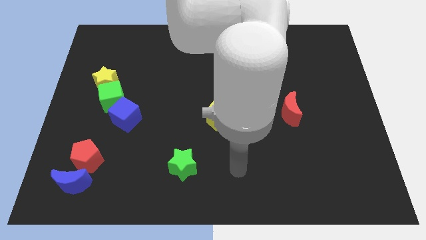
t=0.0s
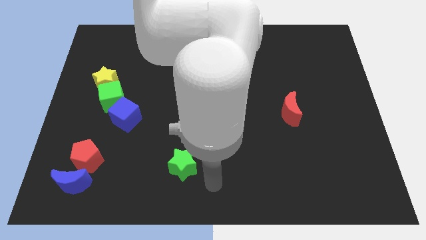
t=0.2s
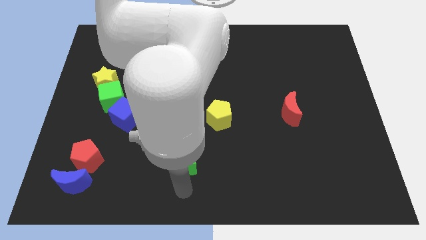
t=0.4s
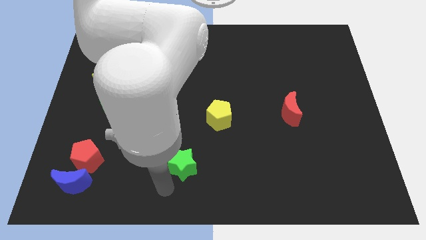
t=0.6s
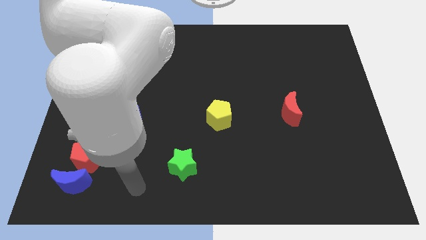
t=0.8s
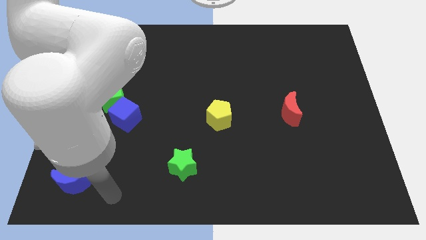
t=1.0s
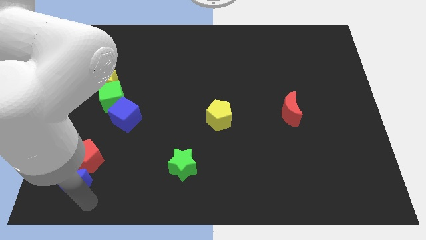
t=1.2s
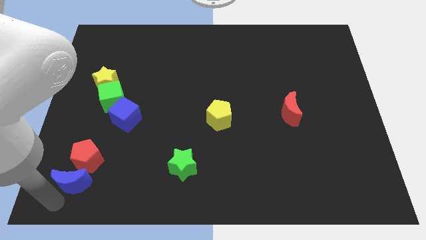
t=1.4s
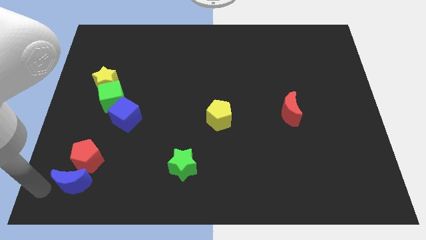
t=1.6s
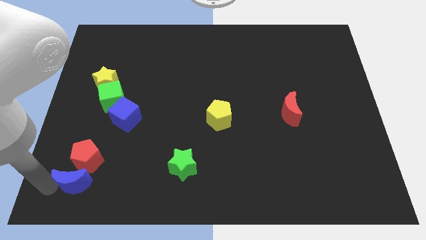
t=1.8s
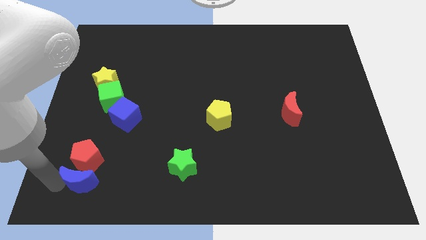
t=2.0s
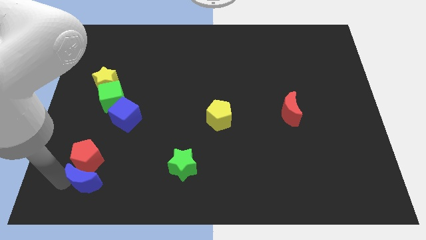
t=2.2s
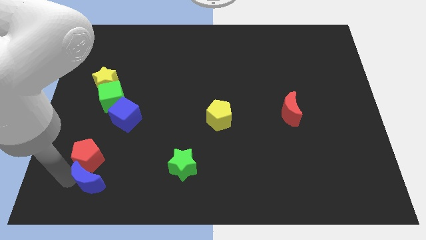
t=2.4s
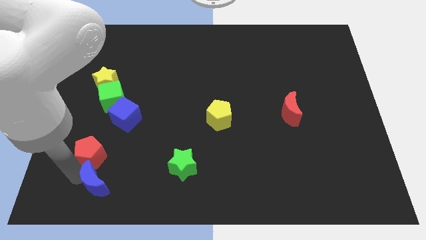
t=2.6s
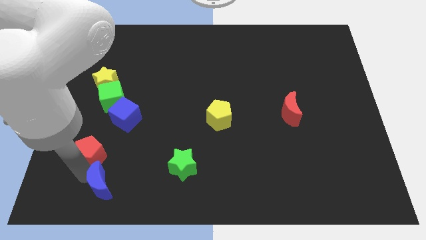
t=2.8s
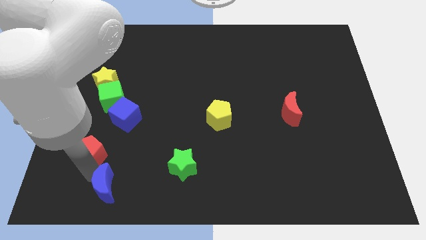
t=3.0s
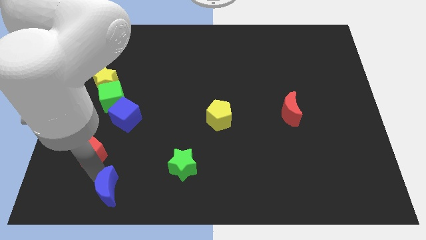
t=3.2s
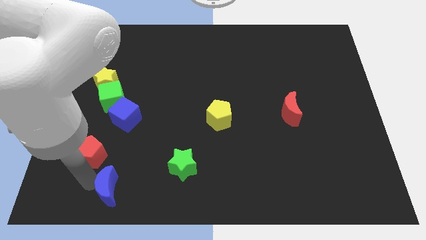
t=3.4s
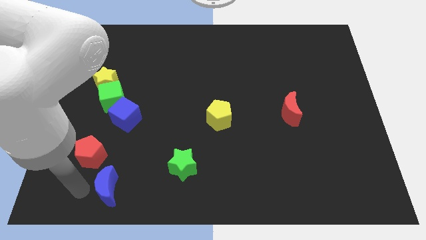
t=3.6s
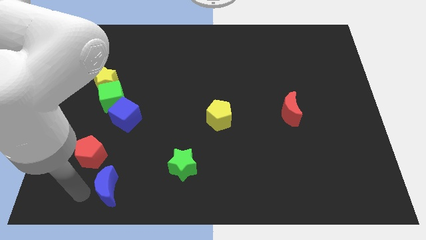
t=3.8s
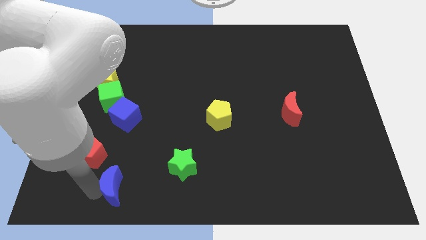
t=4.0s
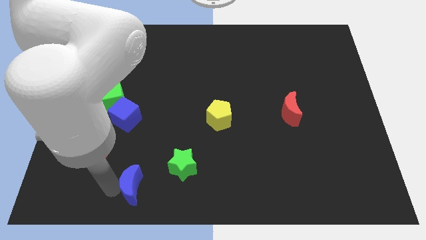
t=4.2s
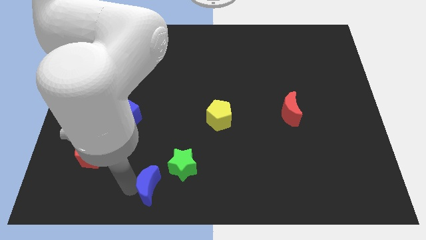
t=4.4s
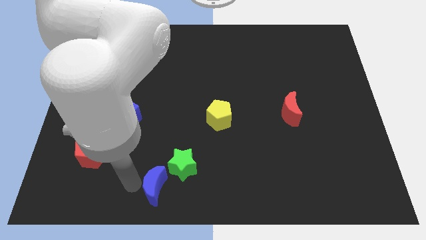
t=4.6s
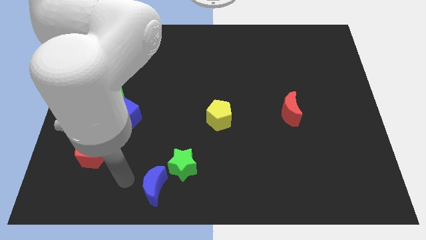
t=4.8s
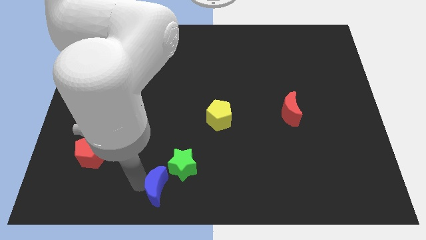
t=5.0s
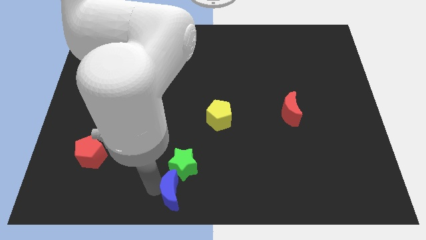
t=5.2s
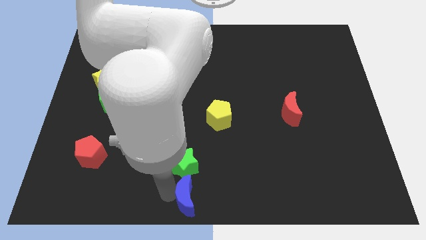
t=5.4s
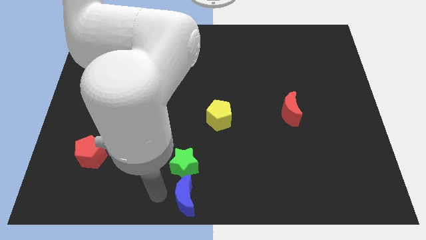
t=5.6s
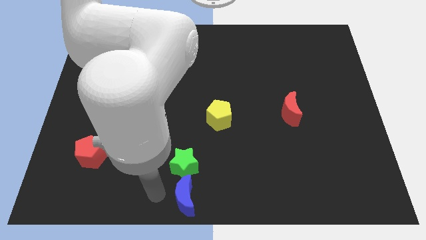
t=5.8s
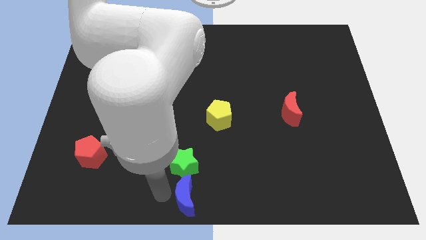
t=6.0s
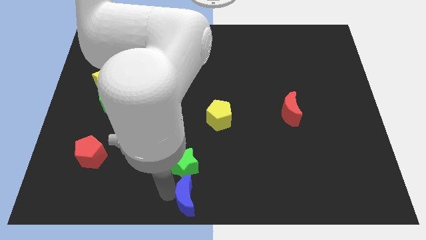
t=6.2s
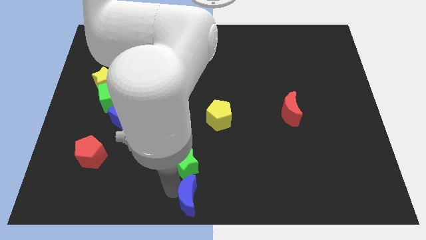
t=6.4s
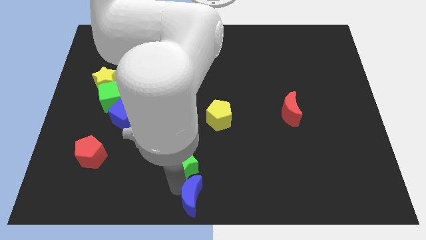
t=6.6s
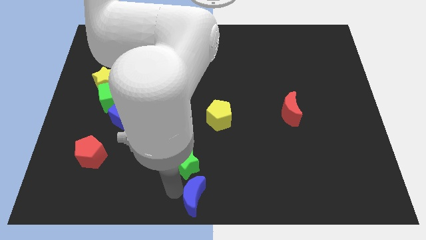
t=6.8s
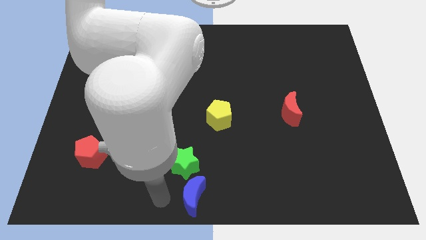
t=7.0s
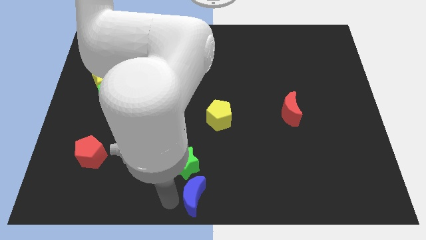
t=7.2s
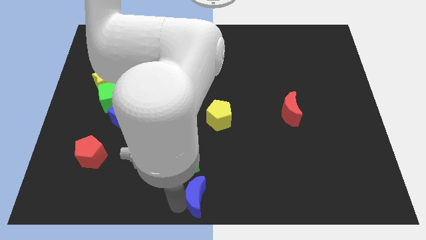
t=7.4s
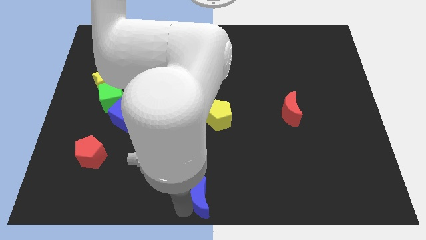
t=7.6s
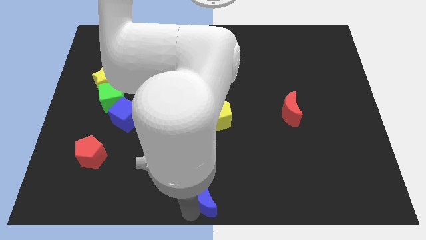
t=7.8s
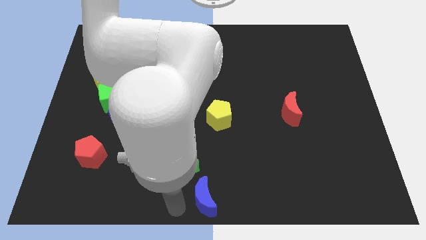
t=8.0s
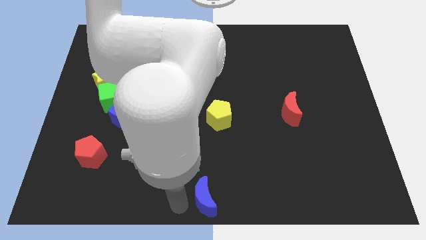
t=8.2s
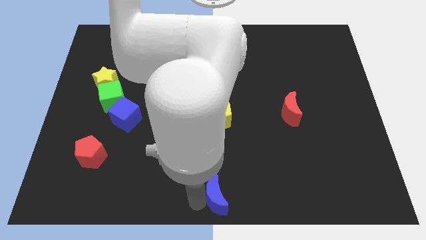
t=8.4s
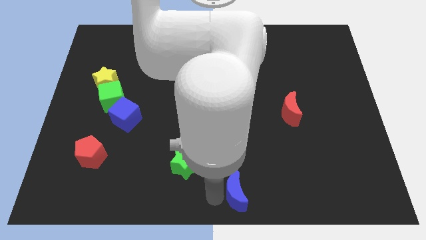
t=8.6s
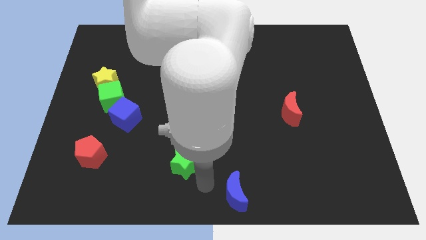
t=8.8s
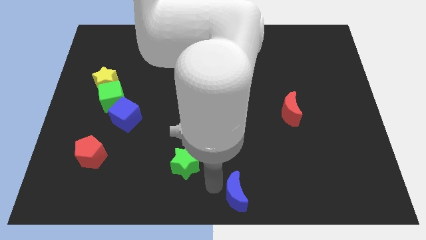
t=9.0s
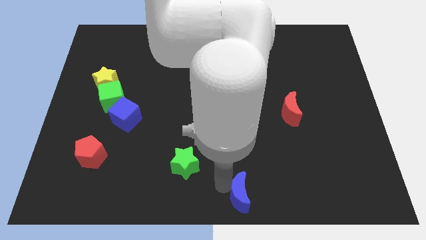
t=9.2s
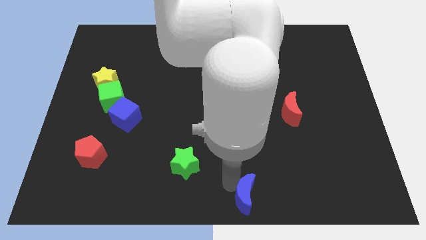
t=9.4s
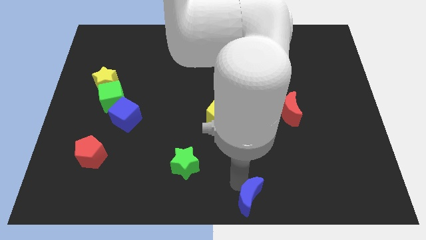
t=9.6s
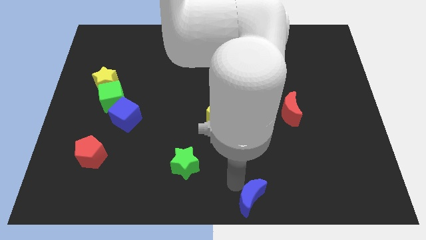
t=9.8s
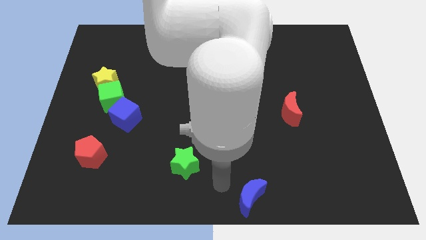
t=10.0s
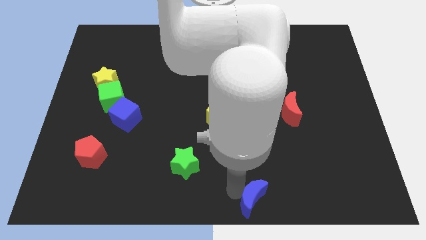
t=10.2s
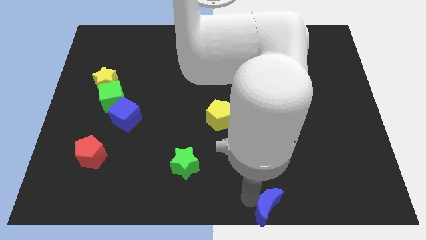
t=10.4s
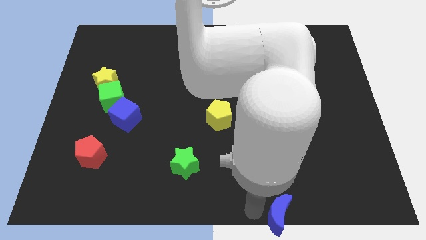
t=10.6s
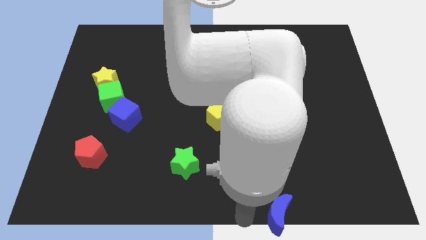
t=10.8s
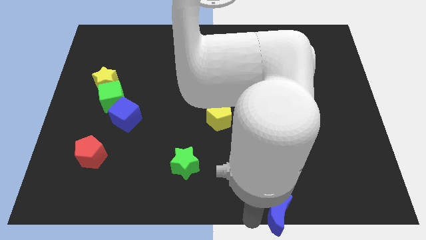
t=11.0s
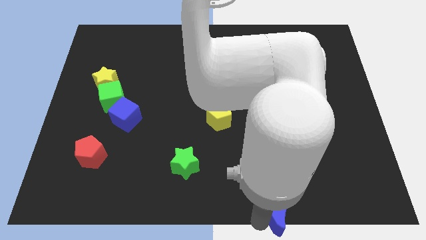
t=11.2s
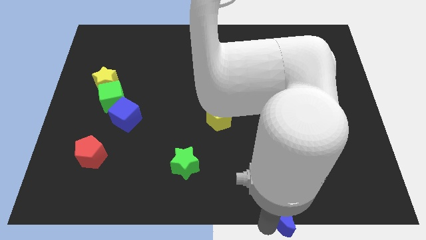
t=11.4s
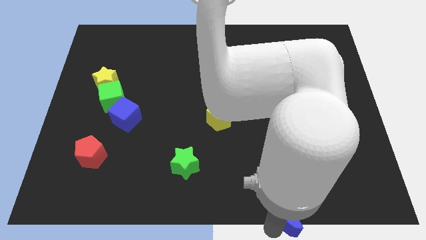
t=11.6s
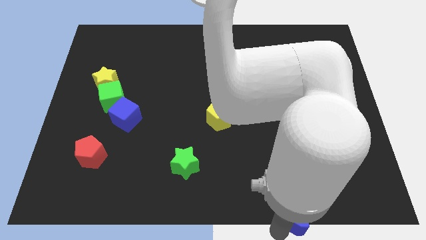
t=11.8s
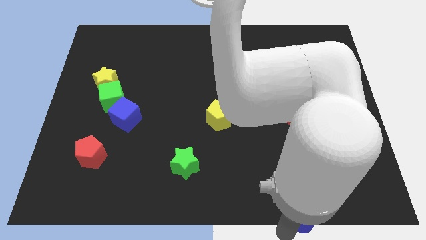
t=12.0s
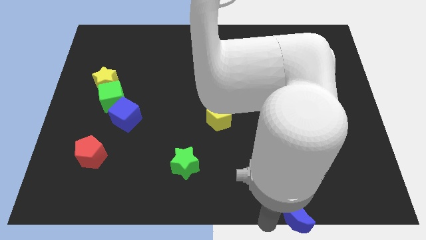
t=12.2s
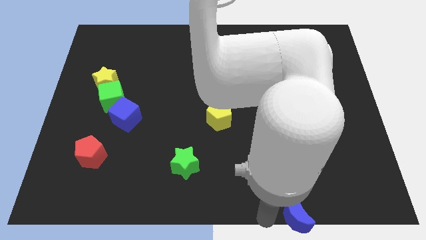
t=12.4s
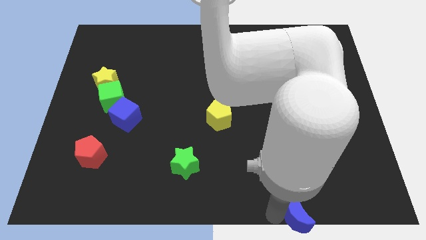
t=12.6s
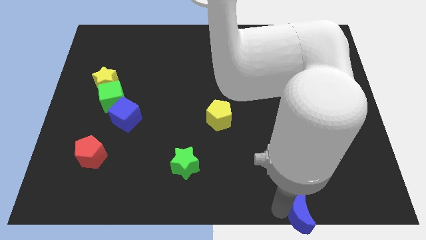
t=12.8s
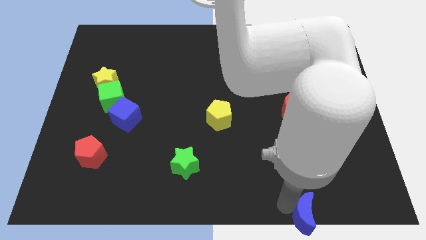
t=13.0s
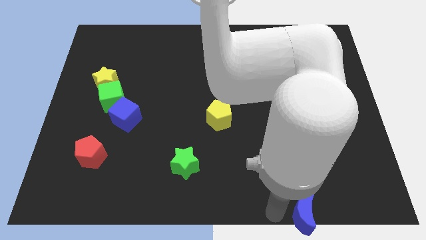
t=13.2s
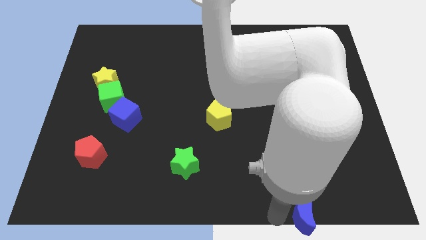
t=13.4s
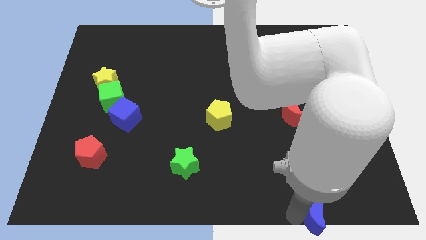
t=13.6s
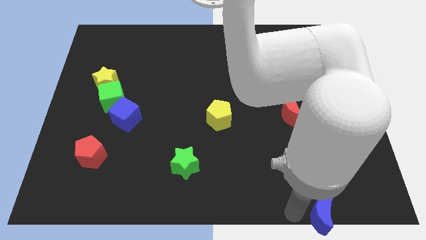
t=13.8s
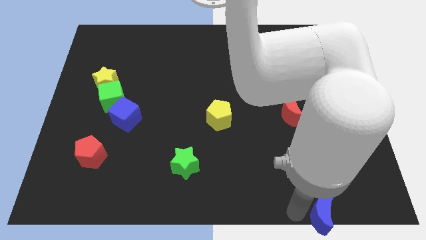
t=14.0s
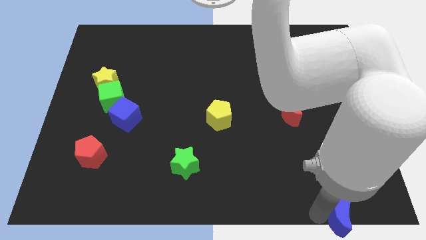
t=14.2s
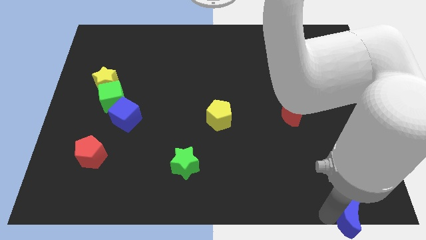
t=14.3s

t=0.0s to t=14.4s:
push the blue moon to the bottom right

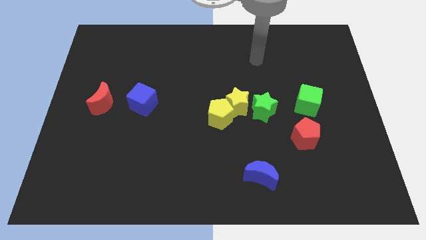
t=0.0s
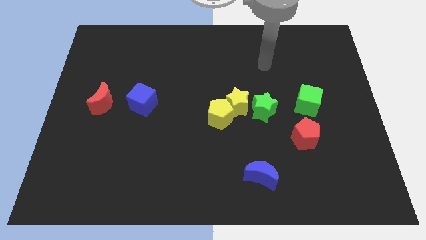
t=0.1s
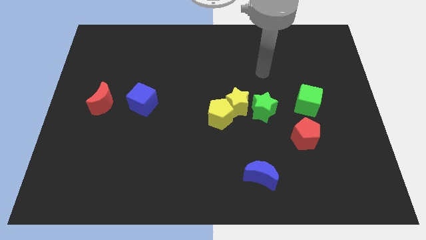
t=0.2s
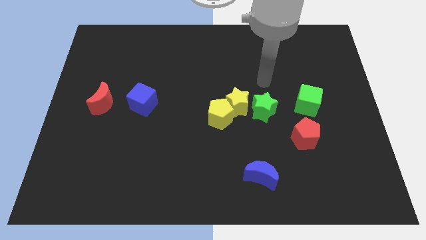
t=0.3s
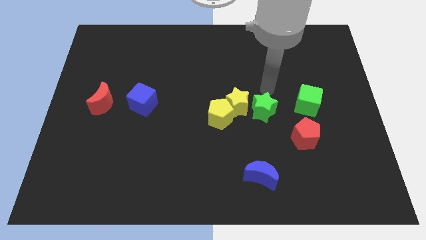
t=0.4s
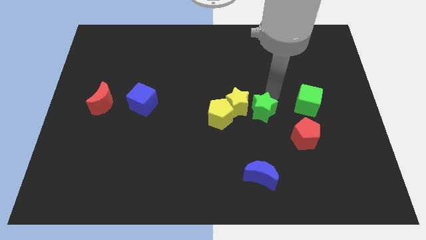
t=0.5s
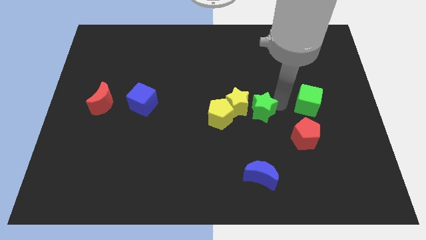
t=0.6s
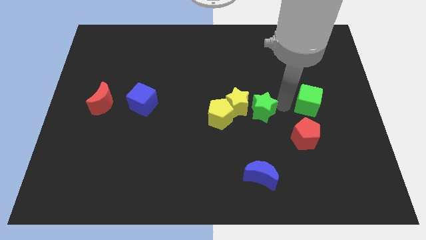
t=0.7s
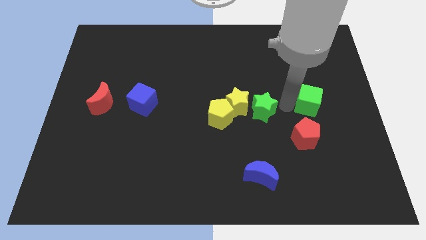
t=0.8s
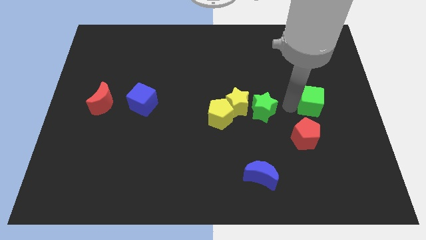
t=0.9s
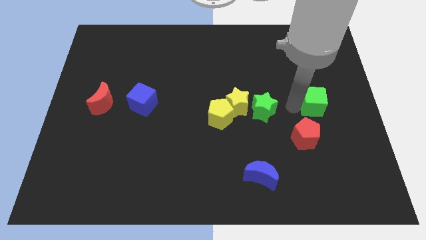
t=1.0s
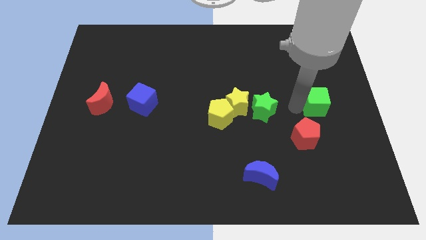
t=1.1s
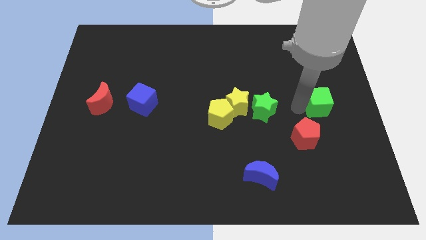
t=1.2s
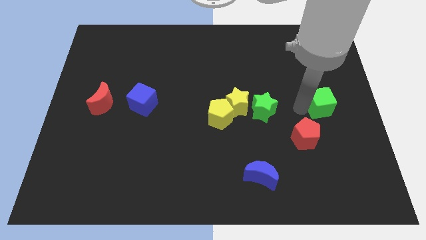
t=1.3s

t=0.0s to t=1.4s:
put the green cube to the center right
